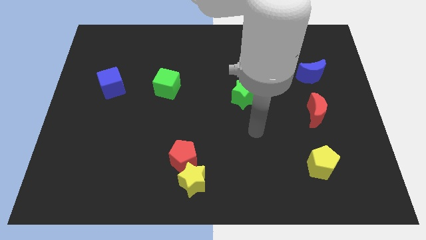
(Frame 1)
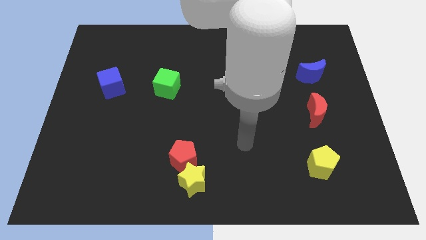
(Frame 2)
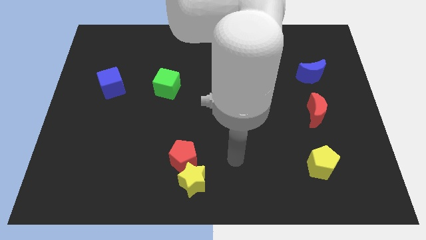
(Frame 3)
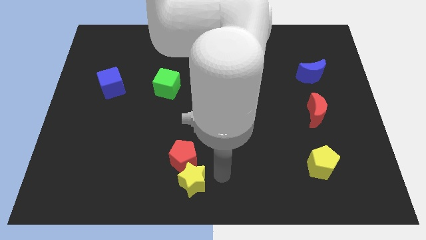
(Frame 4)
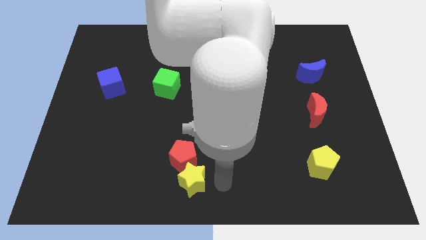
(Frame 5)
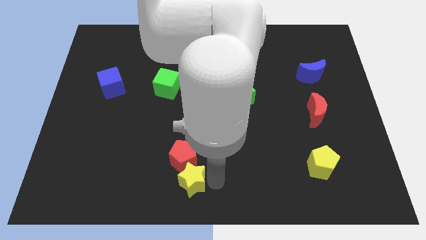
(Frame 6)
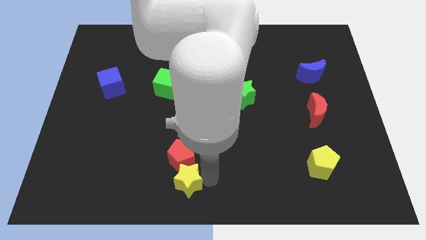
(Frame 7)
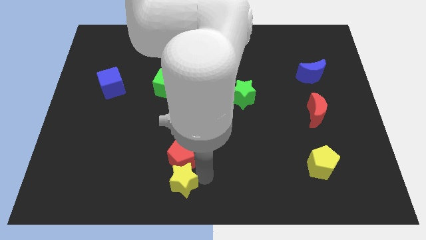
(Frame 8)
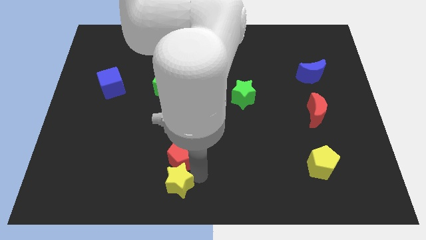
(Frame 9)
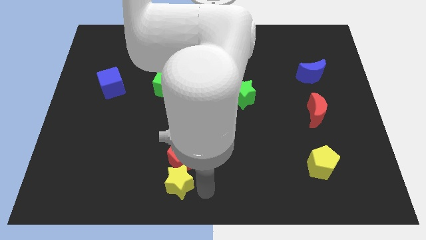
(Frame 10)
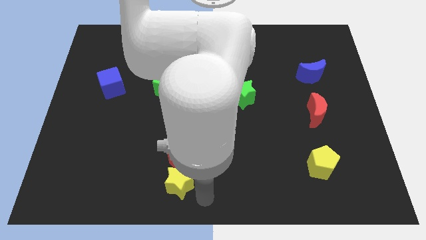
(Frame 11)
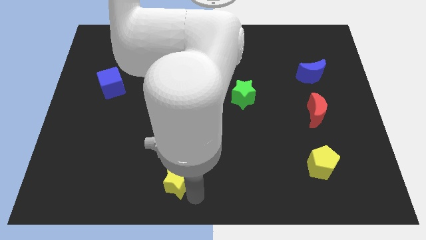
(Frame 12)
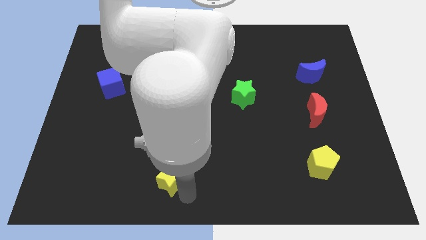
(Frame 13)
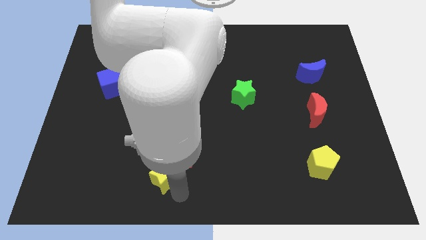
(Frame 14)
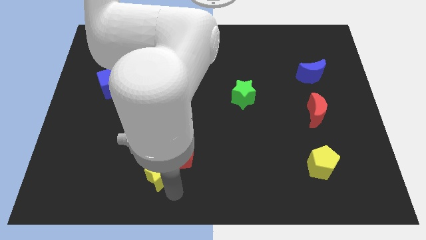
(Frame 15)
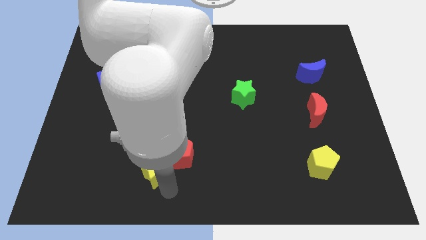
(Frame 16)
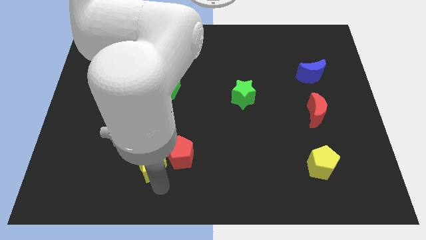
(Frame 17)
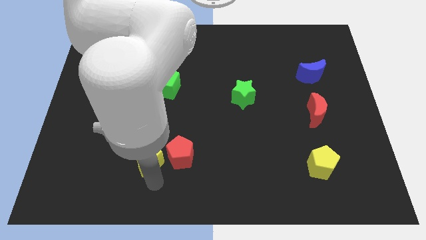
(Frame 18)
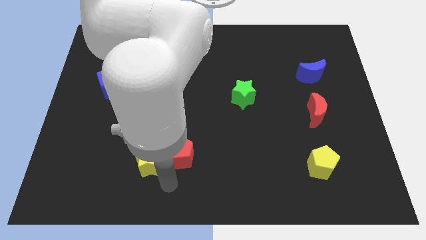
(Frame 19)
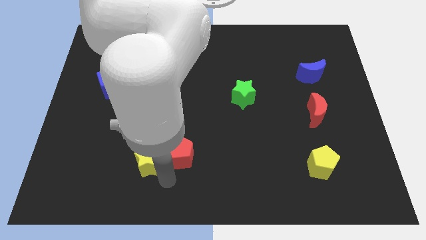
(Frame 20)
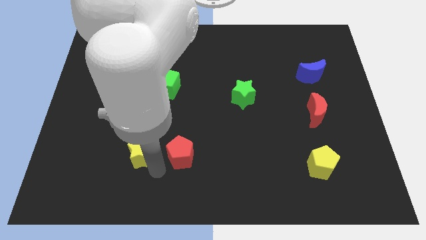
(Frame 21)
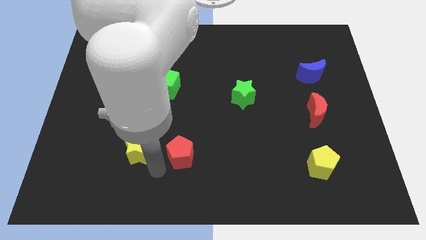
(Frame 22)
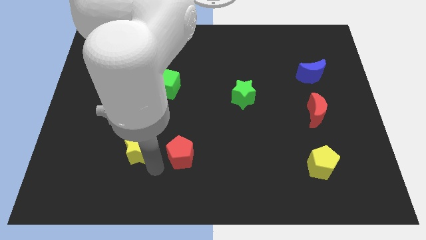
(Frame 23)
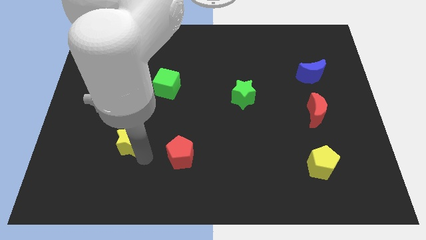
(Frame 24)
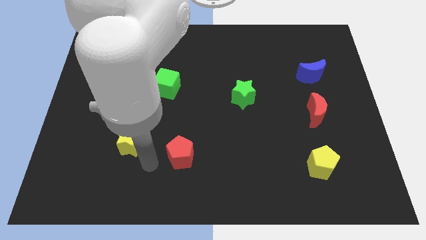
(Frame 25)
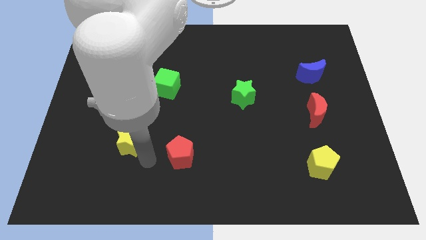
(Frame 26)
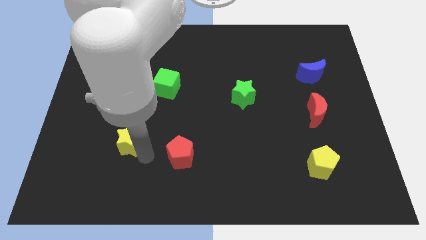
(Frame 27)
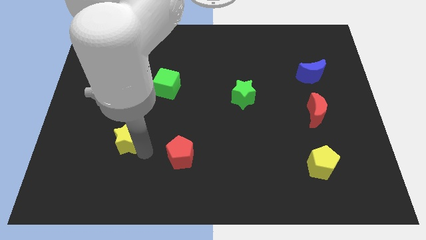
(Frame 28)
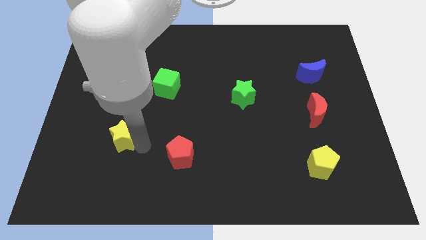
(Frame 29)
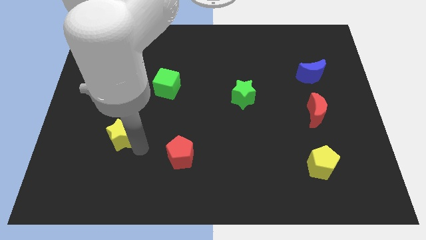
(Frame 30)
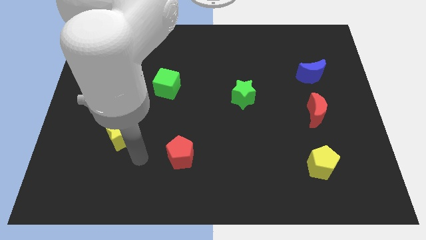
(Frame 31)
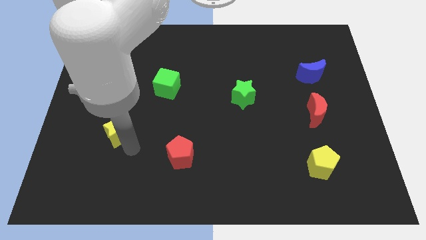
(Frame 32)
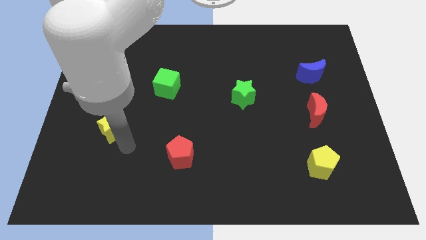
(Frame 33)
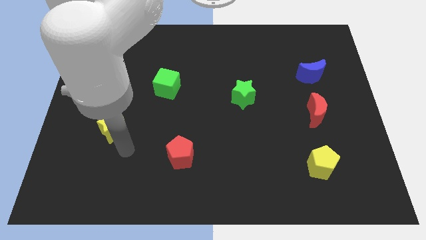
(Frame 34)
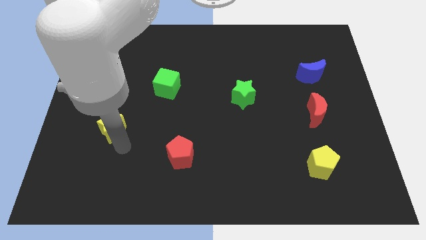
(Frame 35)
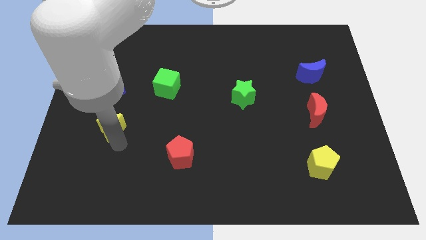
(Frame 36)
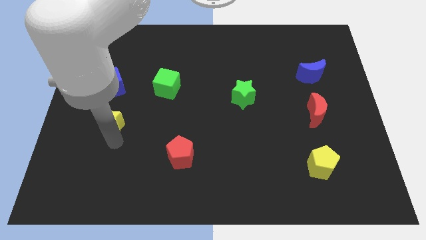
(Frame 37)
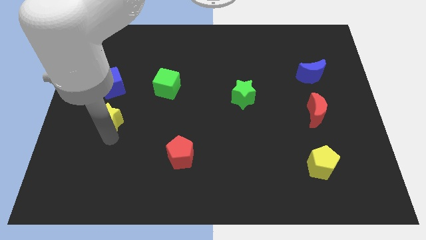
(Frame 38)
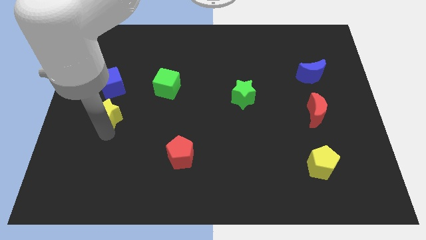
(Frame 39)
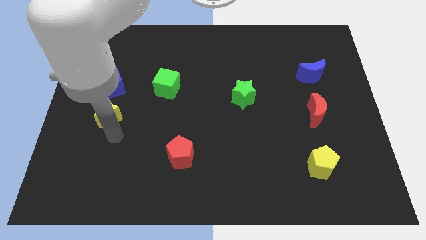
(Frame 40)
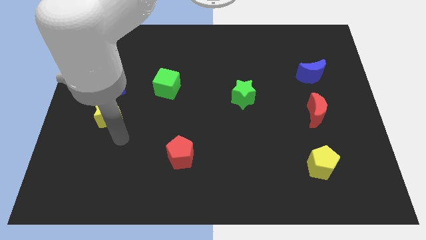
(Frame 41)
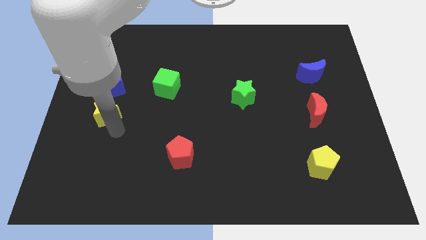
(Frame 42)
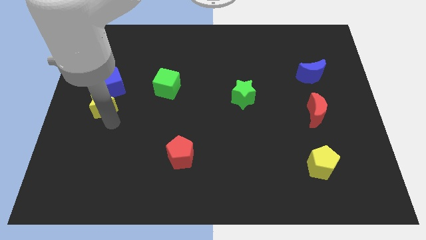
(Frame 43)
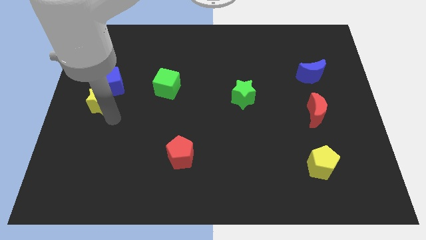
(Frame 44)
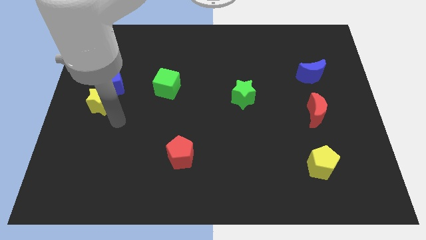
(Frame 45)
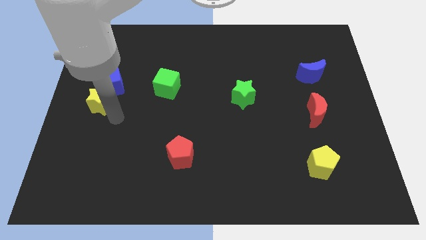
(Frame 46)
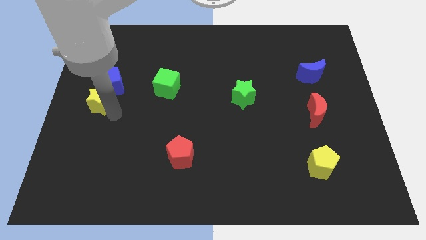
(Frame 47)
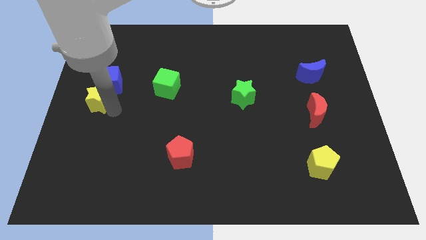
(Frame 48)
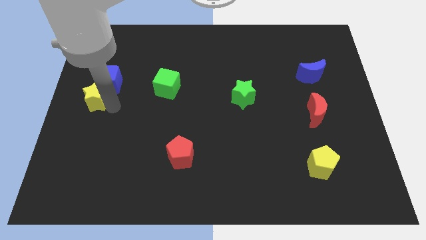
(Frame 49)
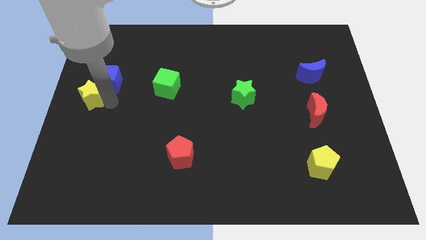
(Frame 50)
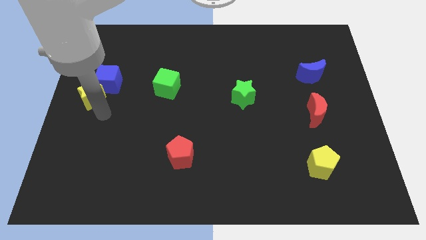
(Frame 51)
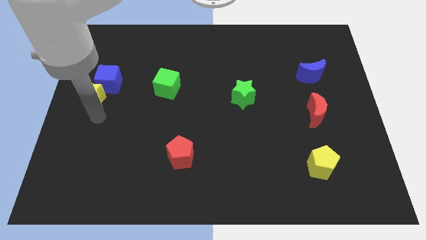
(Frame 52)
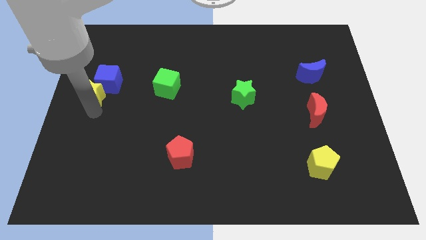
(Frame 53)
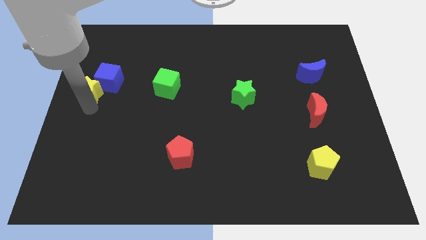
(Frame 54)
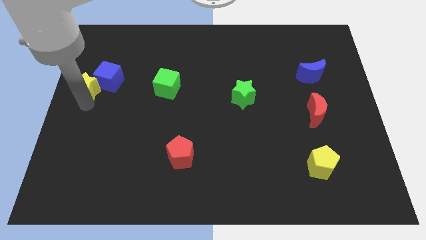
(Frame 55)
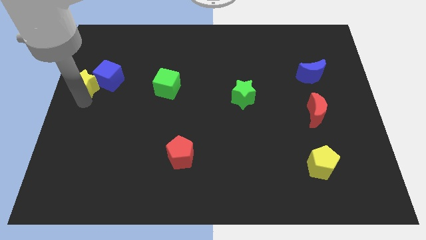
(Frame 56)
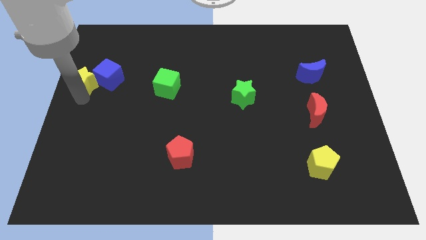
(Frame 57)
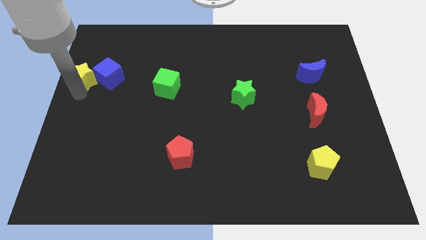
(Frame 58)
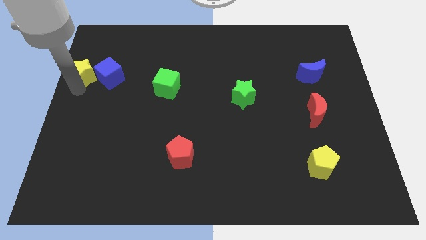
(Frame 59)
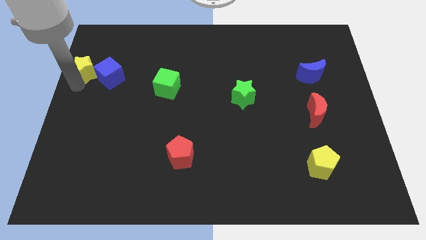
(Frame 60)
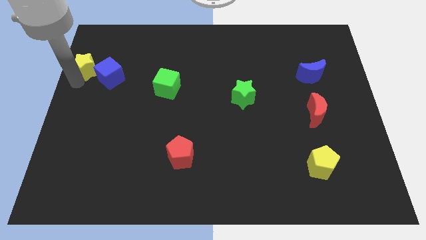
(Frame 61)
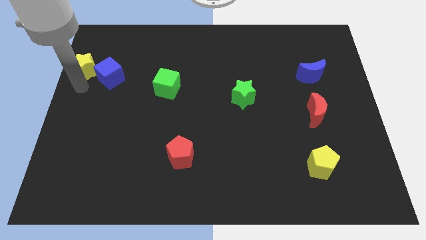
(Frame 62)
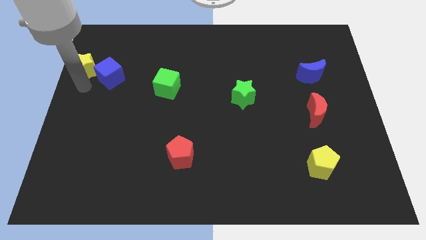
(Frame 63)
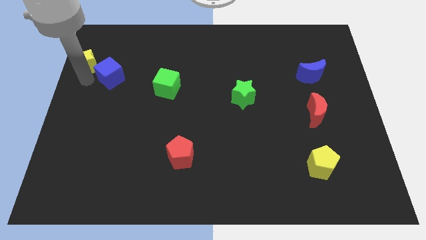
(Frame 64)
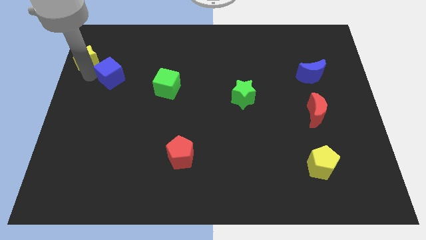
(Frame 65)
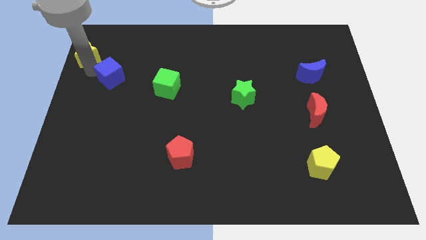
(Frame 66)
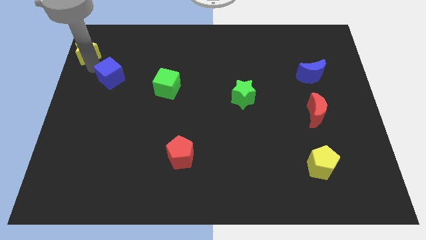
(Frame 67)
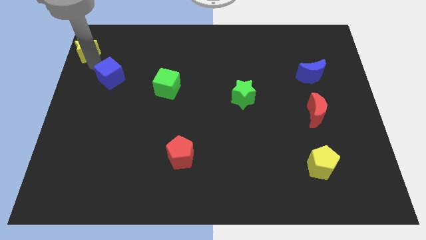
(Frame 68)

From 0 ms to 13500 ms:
put the yellow star to the top left of the board
